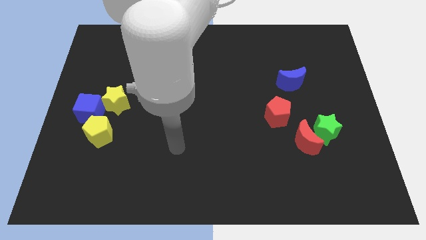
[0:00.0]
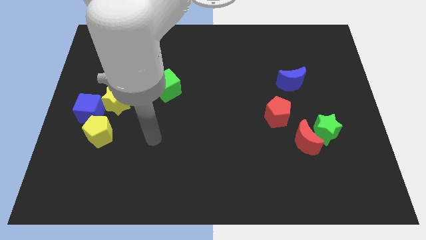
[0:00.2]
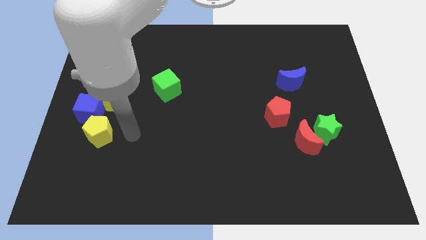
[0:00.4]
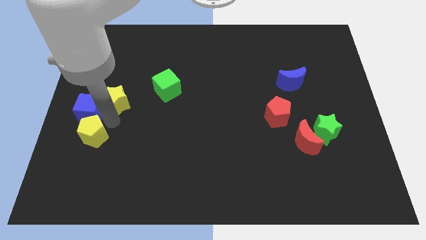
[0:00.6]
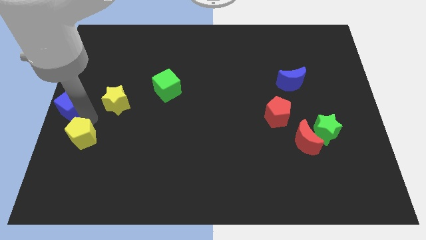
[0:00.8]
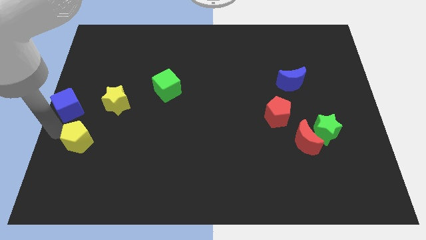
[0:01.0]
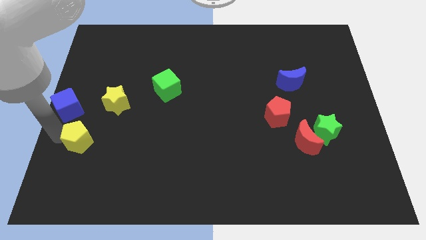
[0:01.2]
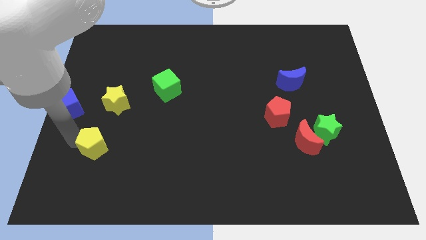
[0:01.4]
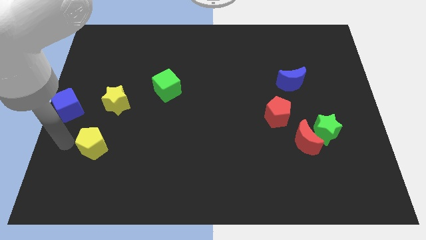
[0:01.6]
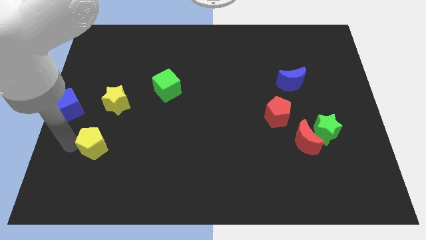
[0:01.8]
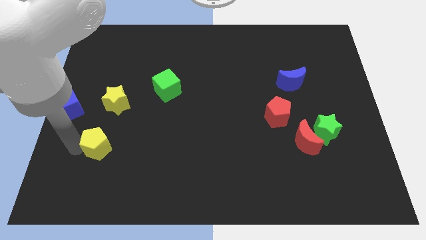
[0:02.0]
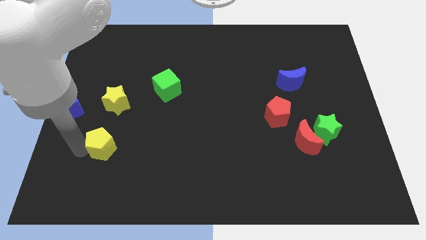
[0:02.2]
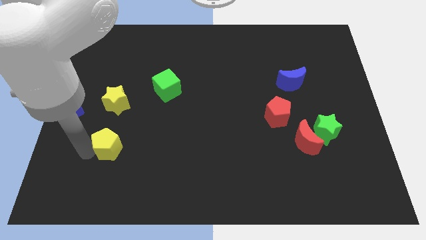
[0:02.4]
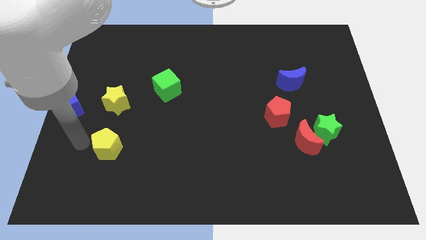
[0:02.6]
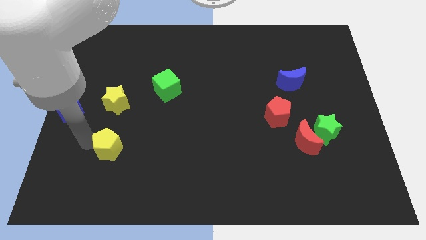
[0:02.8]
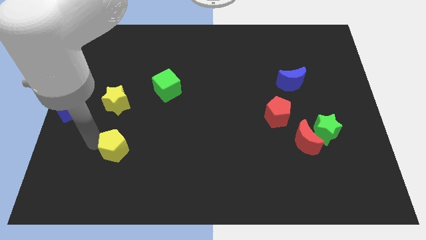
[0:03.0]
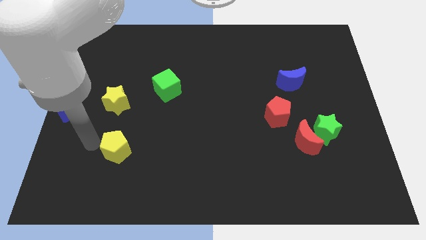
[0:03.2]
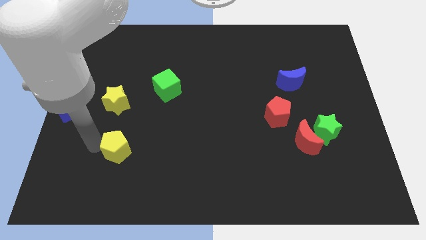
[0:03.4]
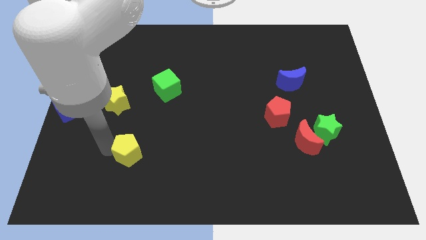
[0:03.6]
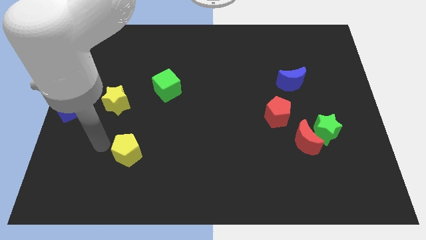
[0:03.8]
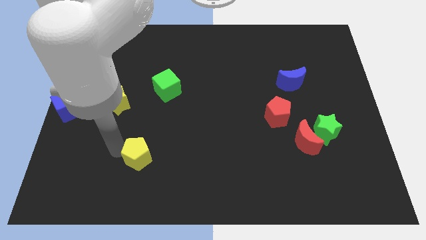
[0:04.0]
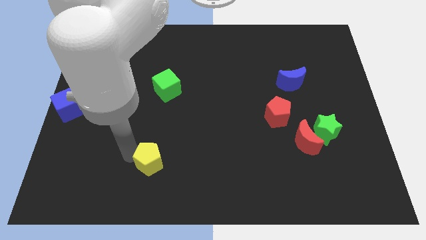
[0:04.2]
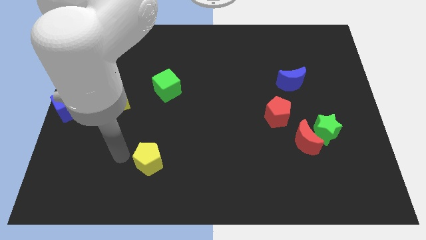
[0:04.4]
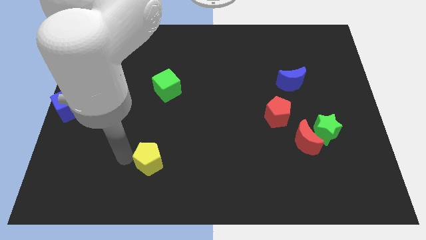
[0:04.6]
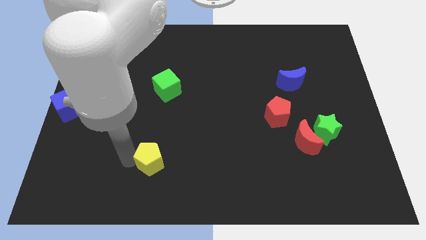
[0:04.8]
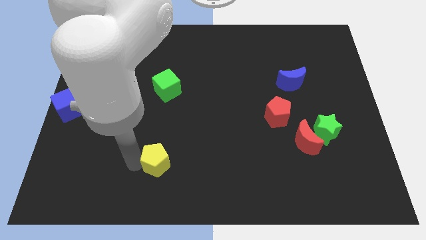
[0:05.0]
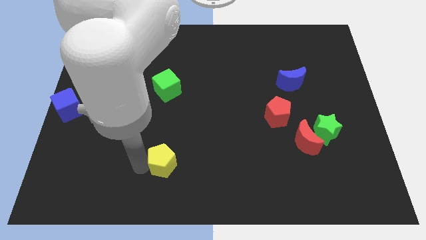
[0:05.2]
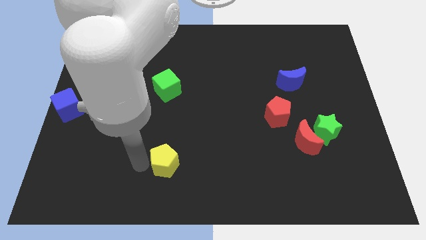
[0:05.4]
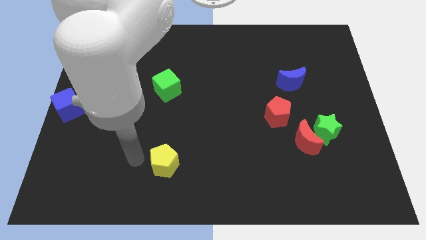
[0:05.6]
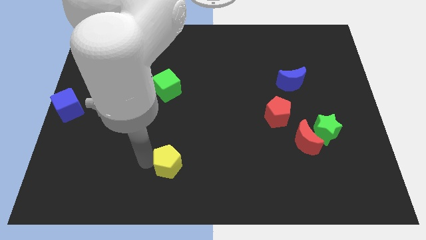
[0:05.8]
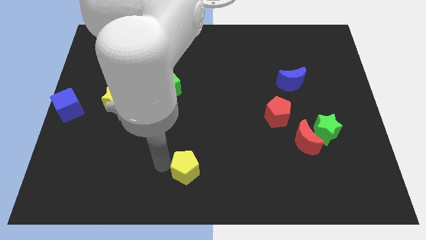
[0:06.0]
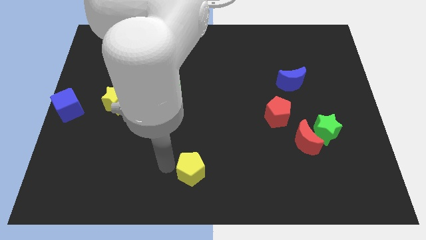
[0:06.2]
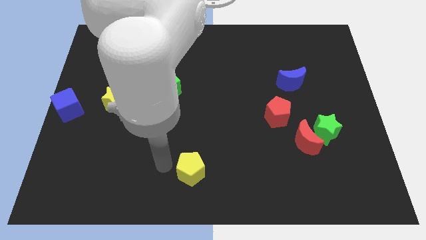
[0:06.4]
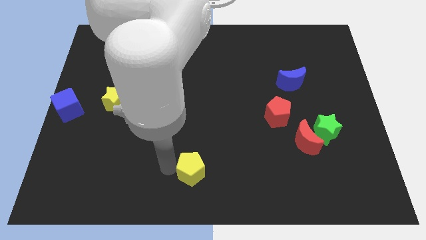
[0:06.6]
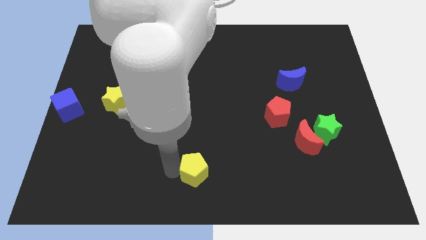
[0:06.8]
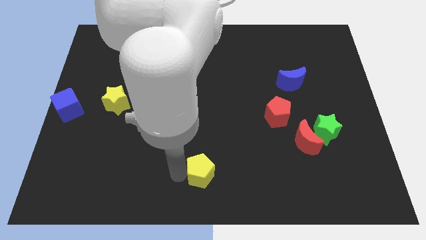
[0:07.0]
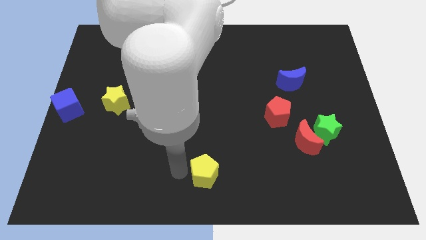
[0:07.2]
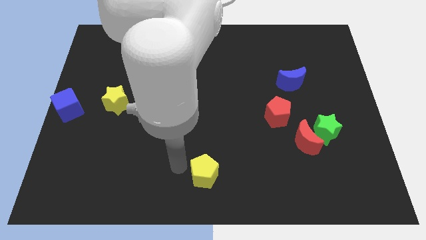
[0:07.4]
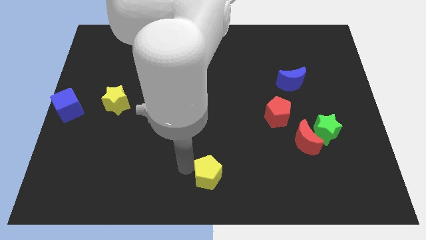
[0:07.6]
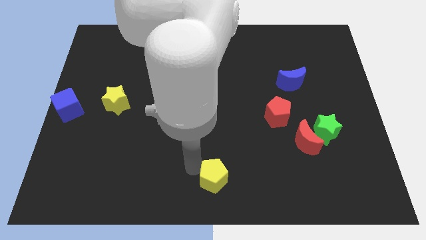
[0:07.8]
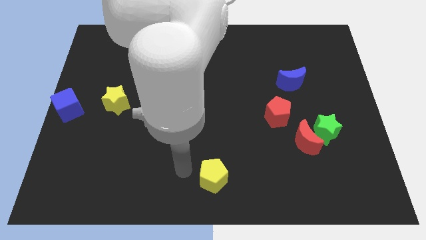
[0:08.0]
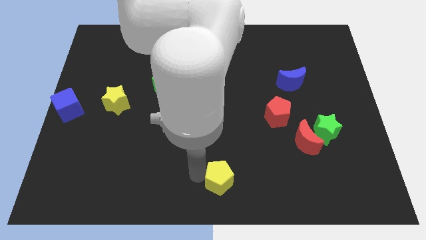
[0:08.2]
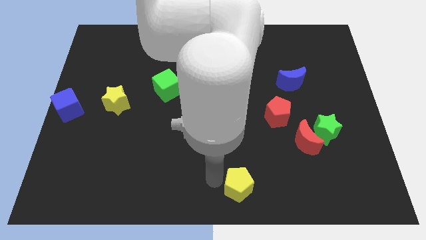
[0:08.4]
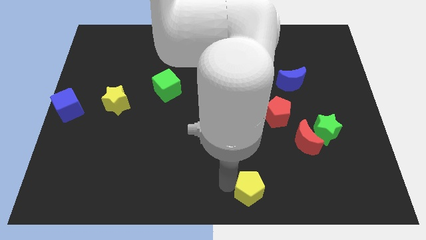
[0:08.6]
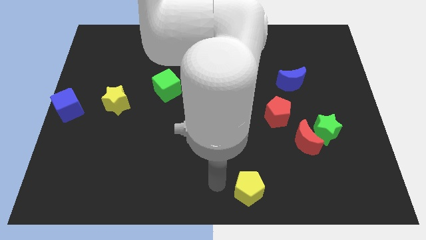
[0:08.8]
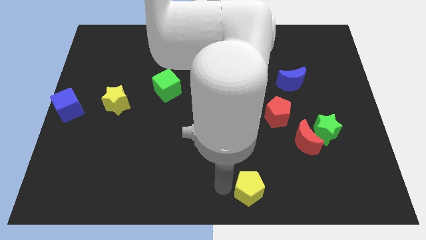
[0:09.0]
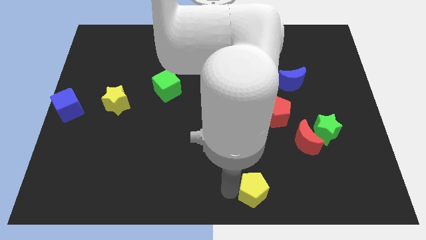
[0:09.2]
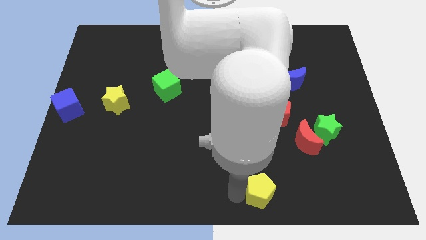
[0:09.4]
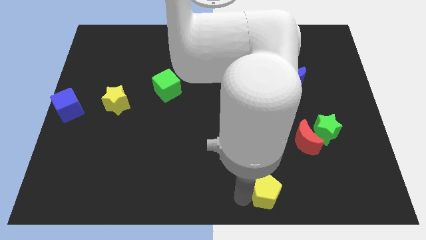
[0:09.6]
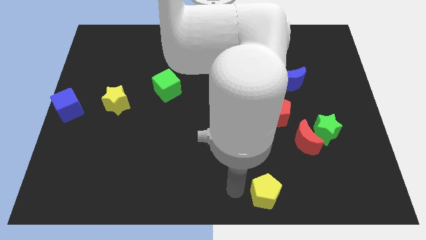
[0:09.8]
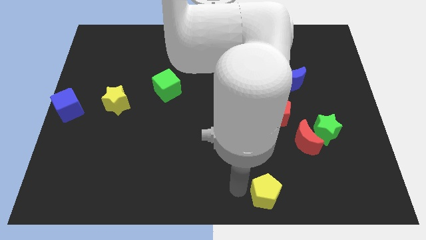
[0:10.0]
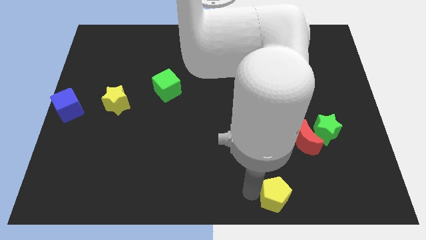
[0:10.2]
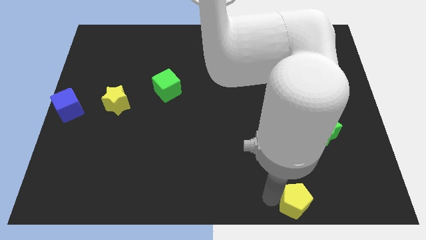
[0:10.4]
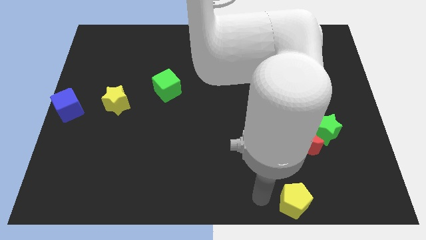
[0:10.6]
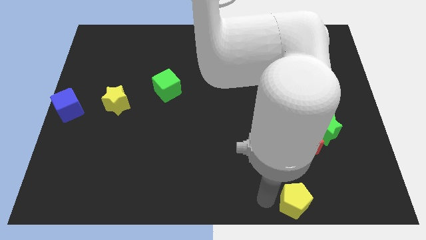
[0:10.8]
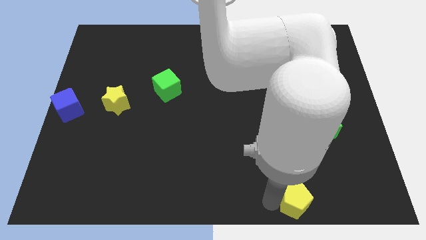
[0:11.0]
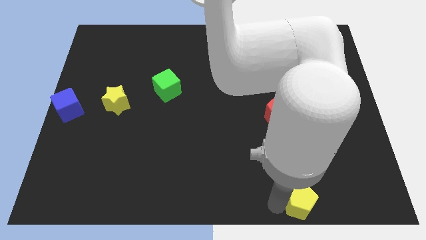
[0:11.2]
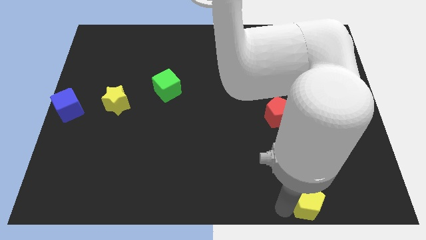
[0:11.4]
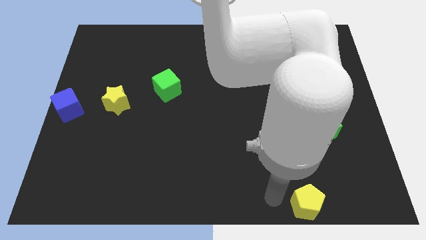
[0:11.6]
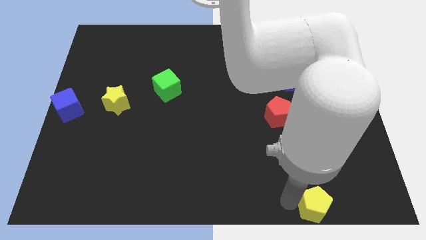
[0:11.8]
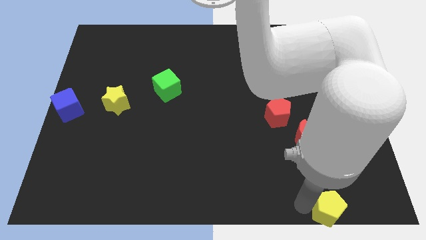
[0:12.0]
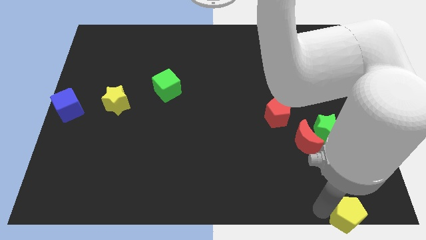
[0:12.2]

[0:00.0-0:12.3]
slide the yellow pentagon to the bottom right
